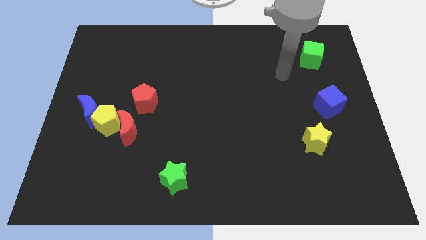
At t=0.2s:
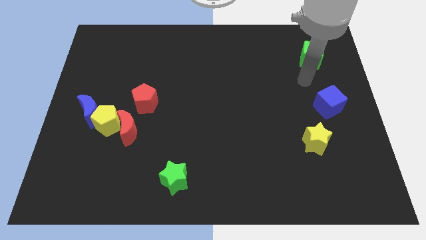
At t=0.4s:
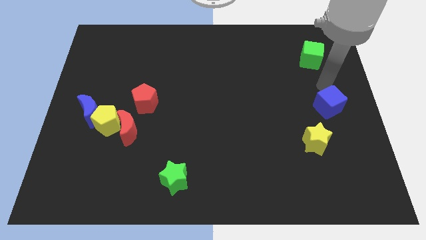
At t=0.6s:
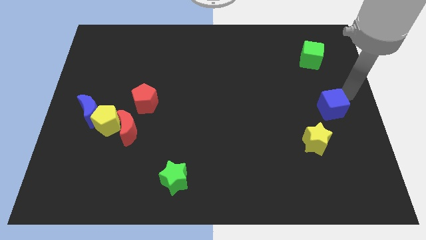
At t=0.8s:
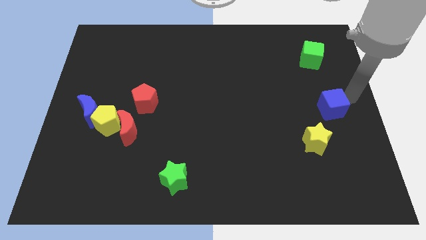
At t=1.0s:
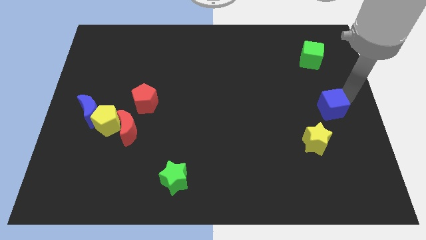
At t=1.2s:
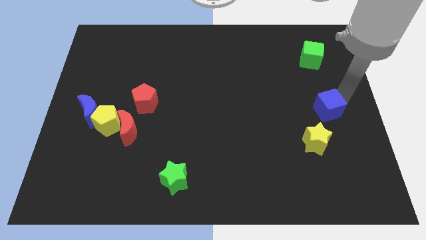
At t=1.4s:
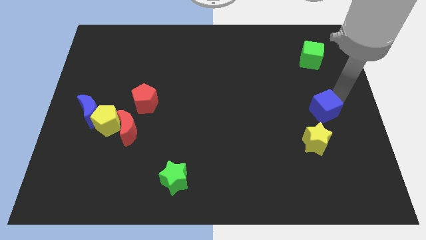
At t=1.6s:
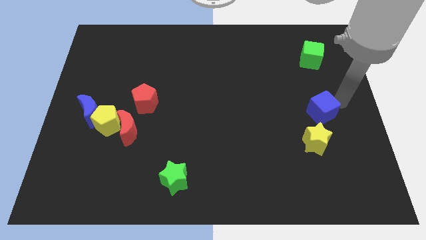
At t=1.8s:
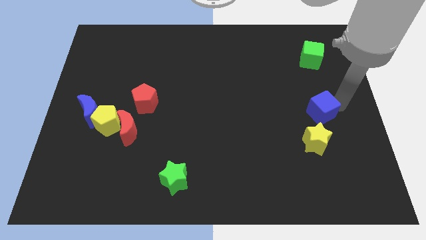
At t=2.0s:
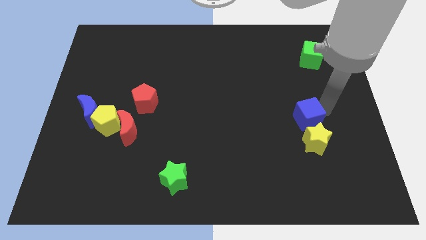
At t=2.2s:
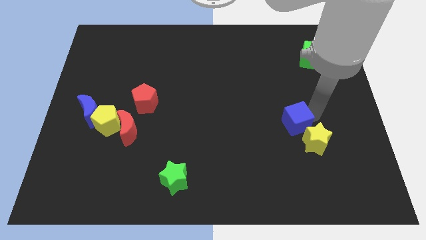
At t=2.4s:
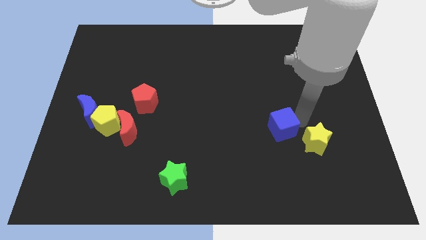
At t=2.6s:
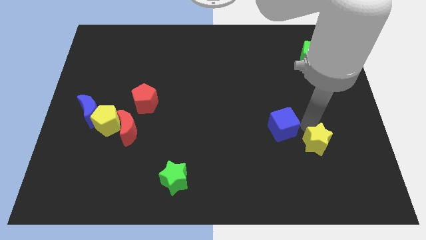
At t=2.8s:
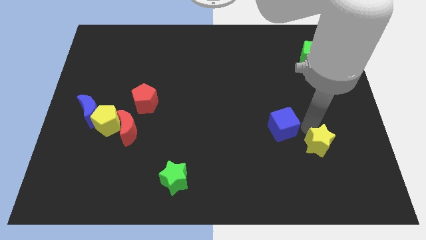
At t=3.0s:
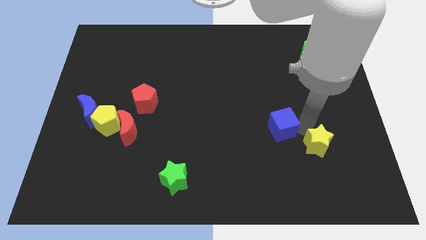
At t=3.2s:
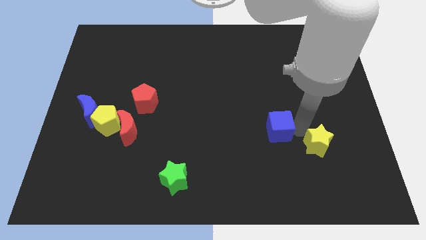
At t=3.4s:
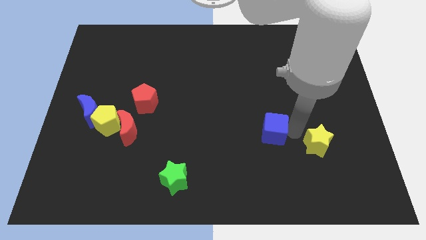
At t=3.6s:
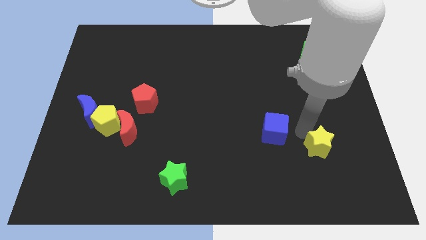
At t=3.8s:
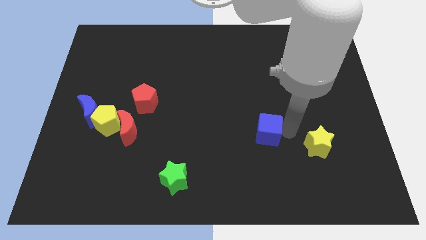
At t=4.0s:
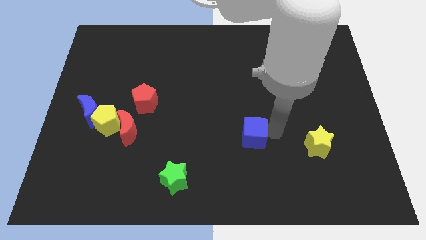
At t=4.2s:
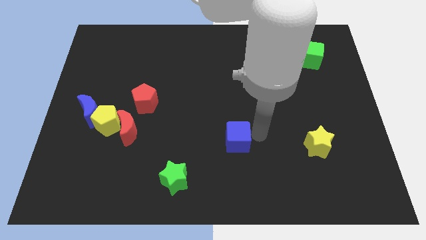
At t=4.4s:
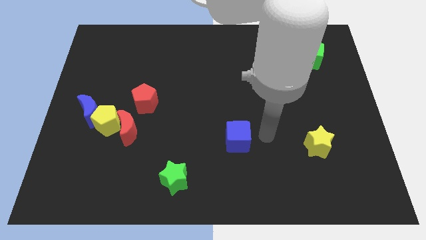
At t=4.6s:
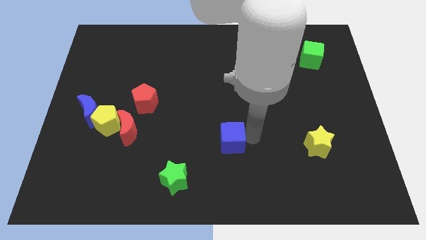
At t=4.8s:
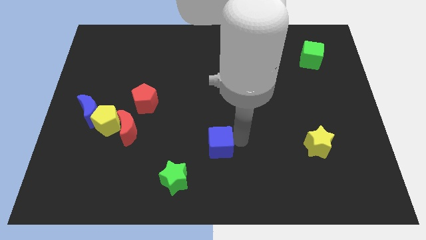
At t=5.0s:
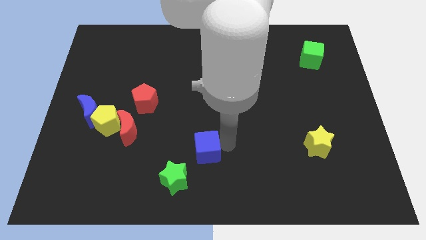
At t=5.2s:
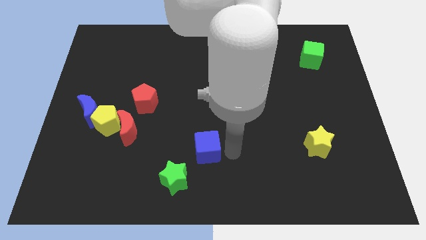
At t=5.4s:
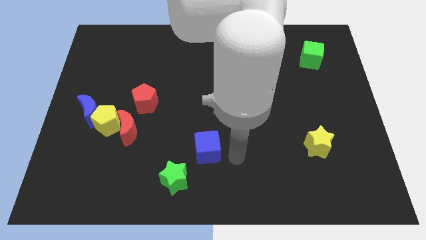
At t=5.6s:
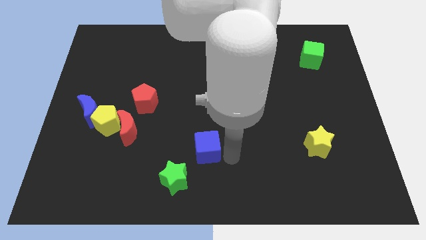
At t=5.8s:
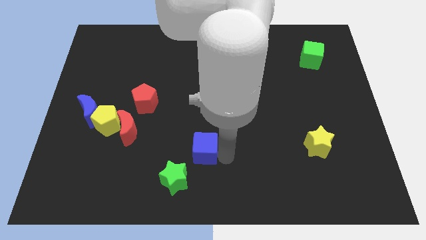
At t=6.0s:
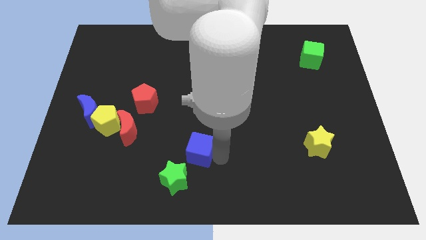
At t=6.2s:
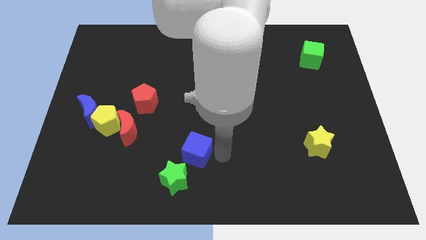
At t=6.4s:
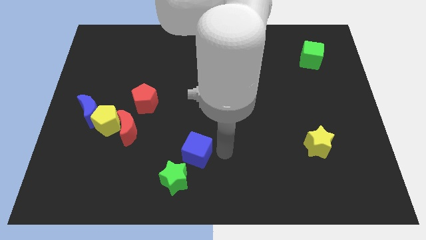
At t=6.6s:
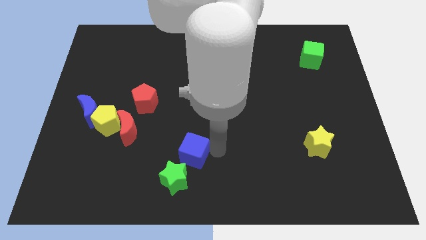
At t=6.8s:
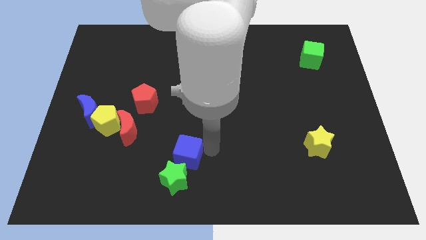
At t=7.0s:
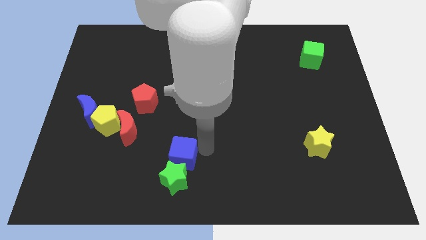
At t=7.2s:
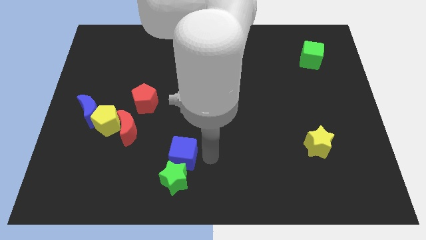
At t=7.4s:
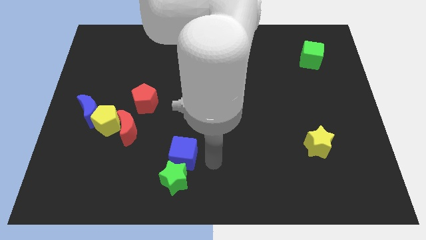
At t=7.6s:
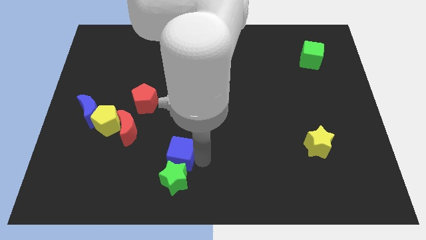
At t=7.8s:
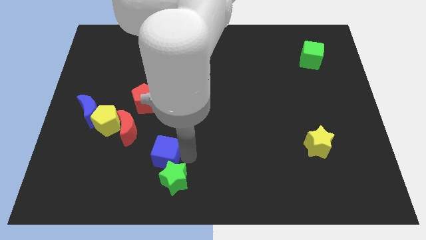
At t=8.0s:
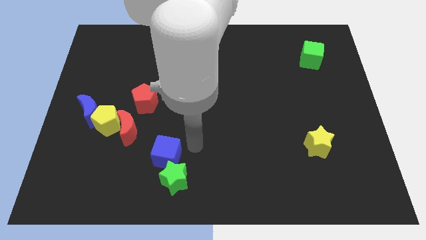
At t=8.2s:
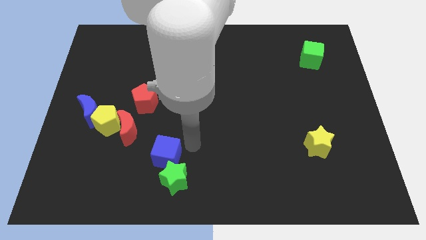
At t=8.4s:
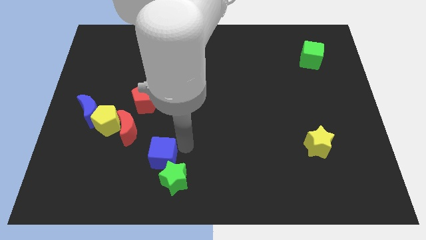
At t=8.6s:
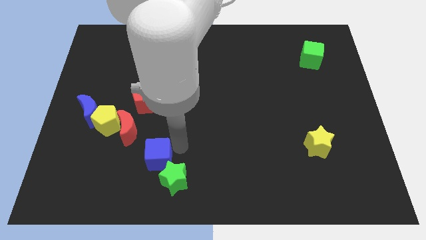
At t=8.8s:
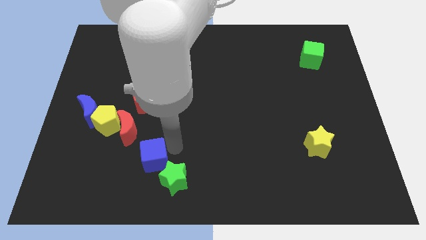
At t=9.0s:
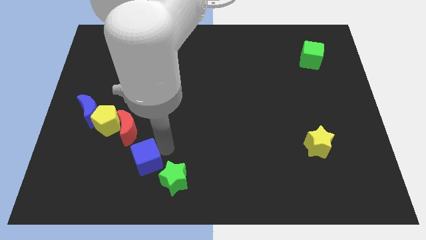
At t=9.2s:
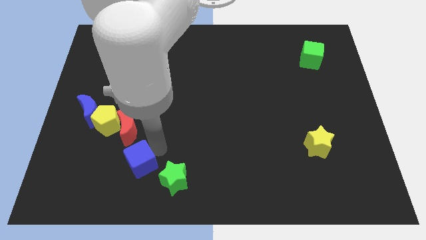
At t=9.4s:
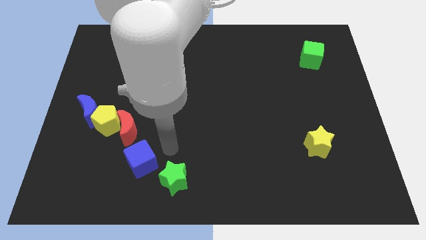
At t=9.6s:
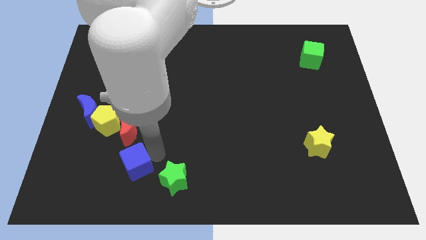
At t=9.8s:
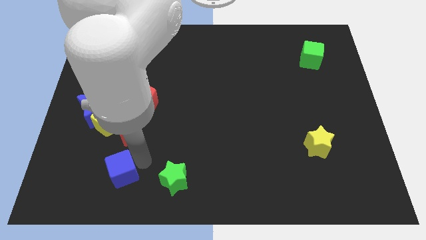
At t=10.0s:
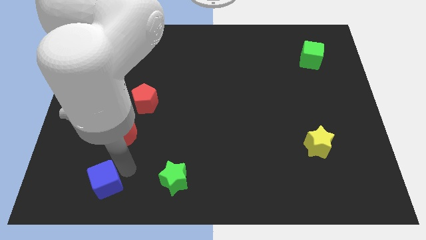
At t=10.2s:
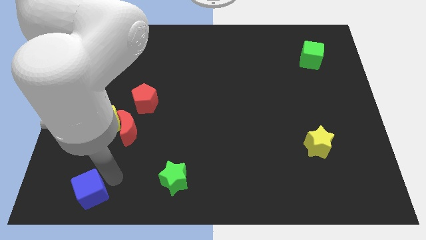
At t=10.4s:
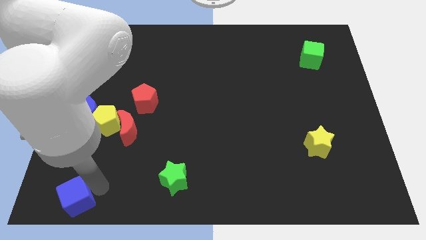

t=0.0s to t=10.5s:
move the blue cube to the bottom left of the board

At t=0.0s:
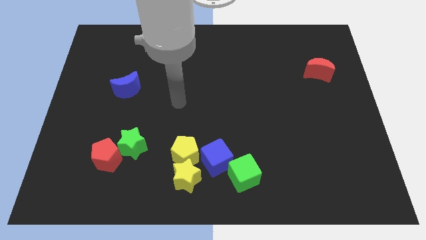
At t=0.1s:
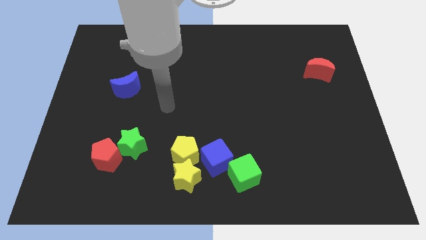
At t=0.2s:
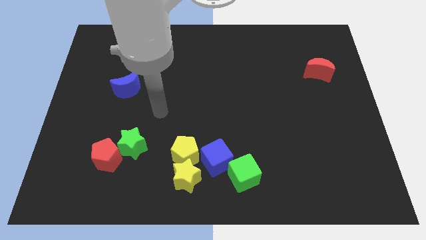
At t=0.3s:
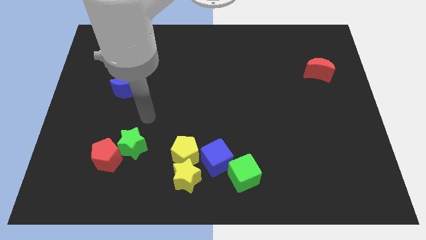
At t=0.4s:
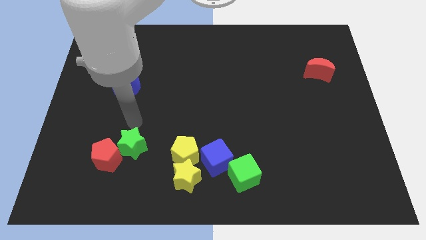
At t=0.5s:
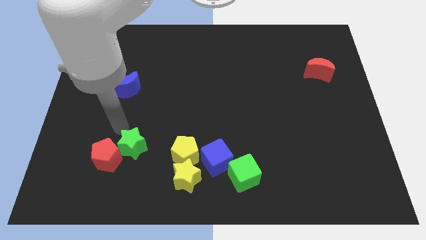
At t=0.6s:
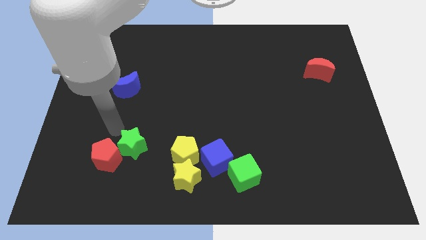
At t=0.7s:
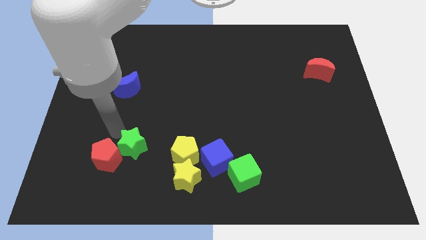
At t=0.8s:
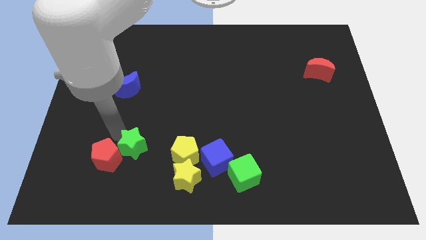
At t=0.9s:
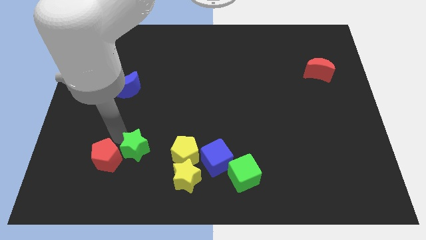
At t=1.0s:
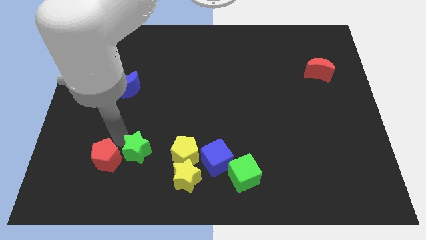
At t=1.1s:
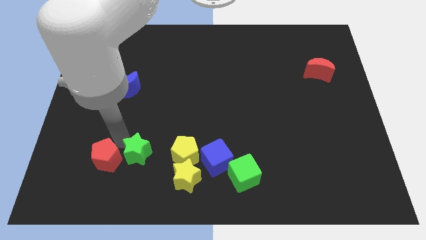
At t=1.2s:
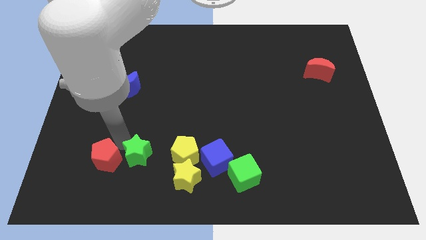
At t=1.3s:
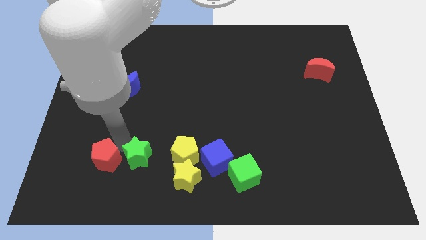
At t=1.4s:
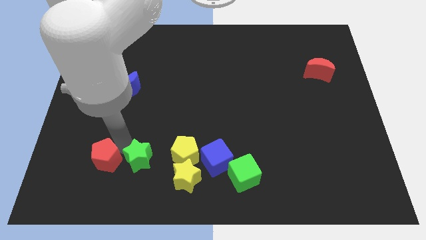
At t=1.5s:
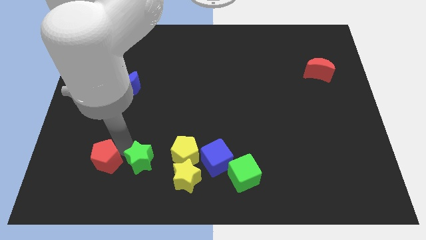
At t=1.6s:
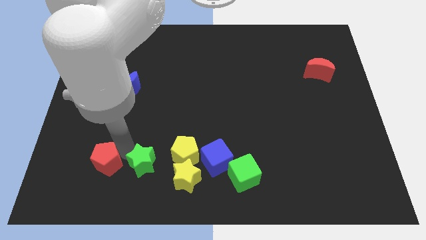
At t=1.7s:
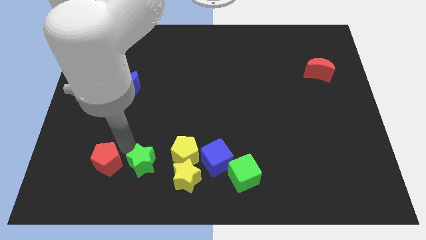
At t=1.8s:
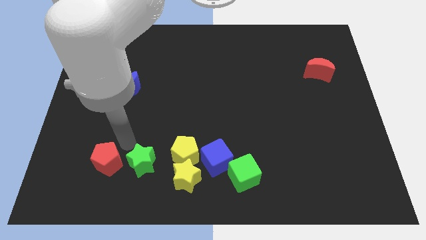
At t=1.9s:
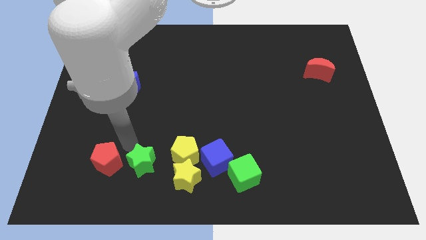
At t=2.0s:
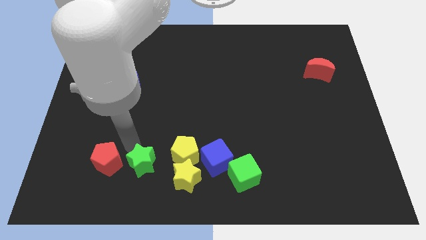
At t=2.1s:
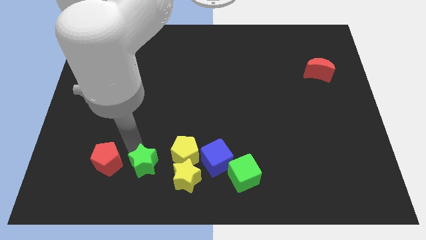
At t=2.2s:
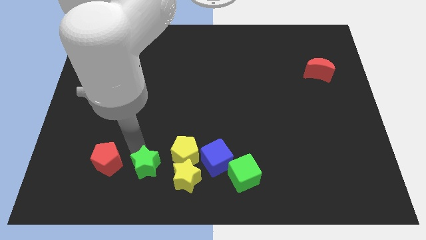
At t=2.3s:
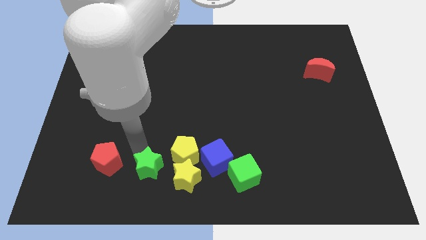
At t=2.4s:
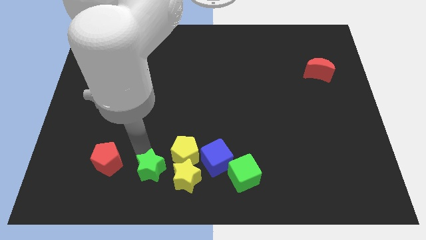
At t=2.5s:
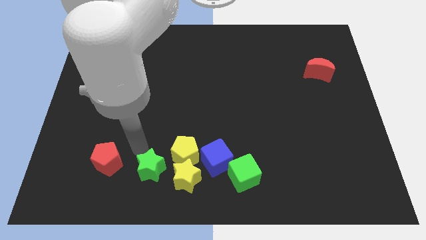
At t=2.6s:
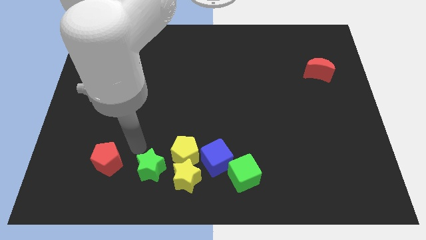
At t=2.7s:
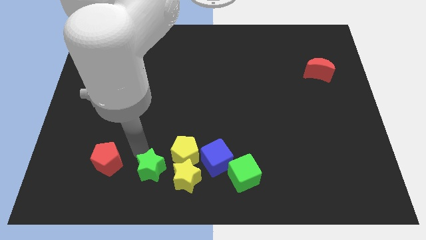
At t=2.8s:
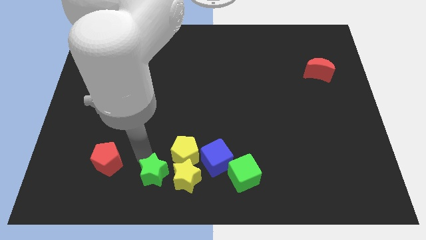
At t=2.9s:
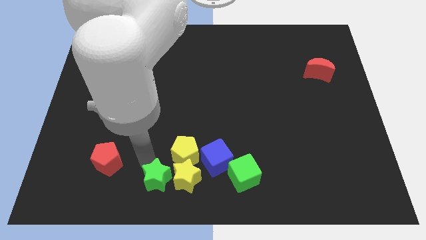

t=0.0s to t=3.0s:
slide the green star to the bottom
